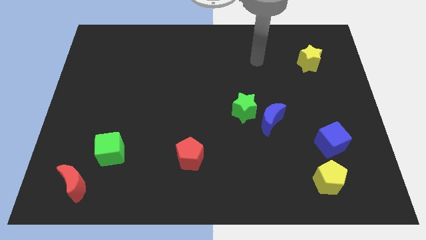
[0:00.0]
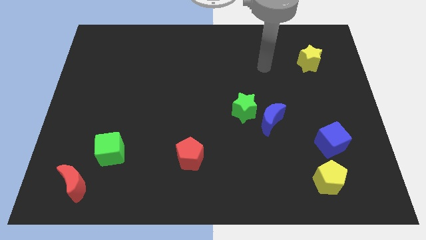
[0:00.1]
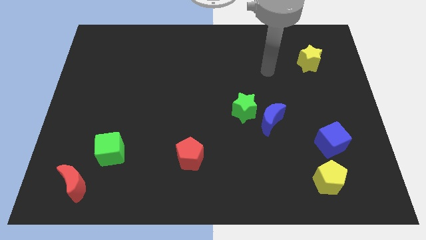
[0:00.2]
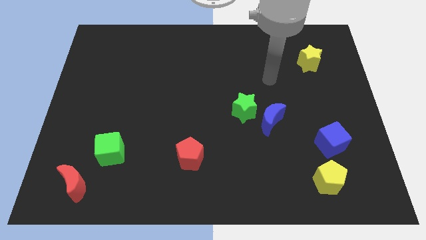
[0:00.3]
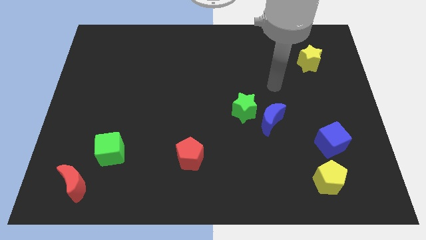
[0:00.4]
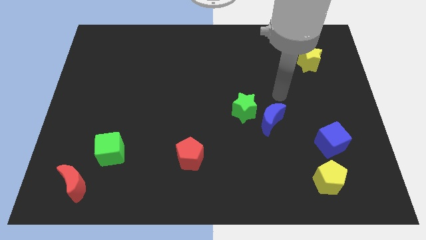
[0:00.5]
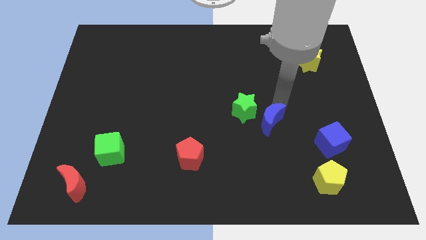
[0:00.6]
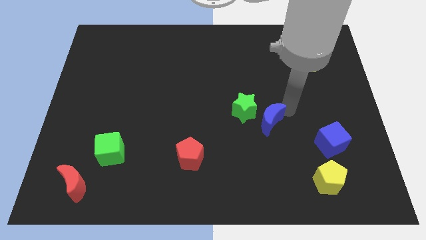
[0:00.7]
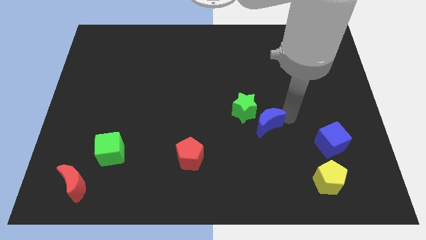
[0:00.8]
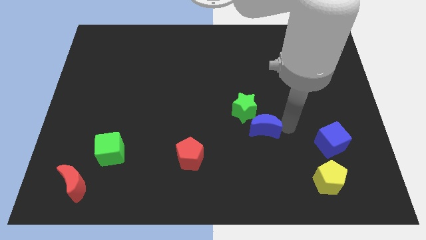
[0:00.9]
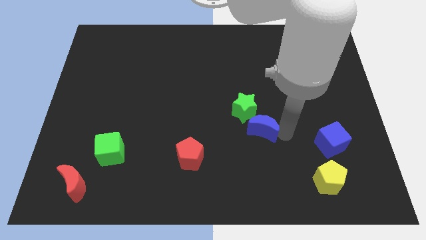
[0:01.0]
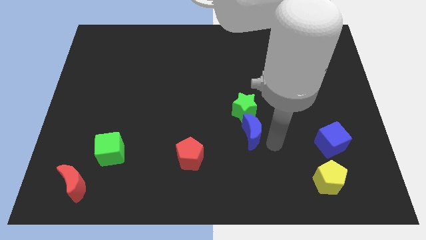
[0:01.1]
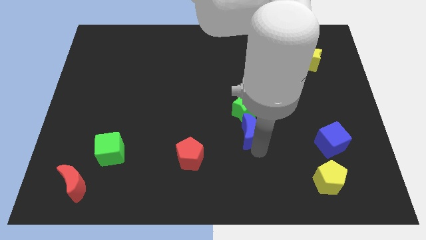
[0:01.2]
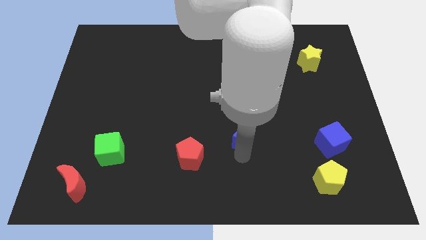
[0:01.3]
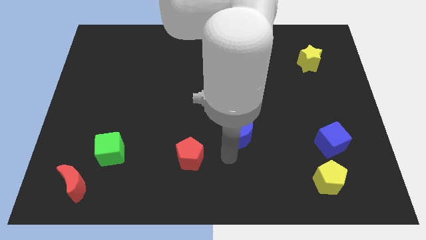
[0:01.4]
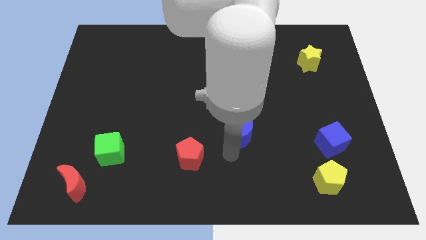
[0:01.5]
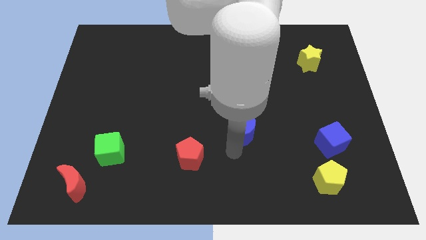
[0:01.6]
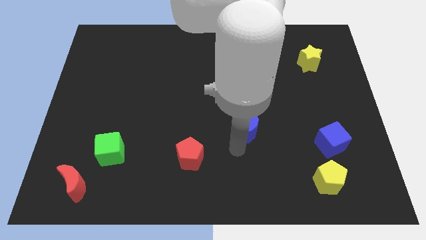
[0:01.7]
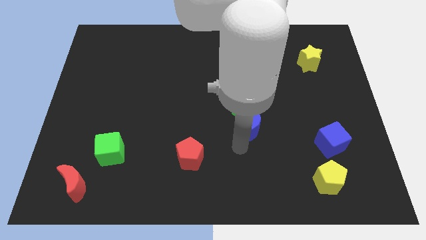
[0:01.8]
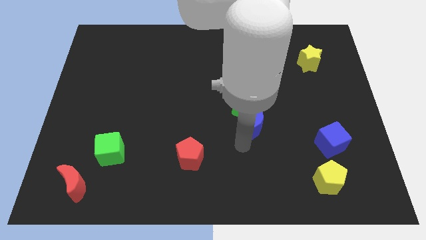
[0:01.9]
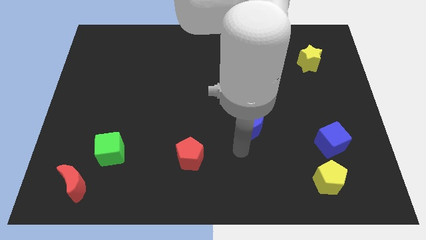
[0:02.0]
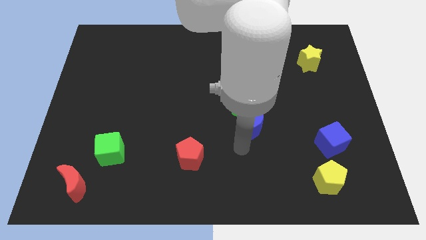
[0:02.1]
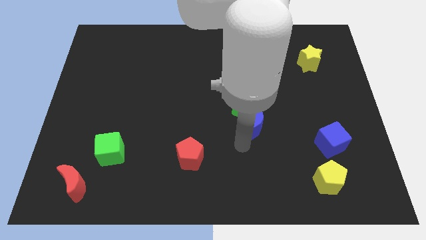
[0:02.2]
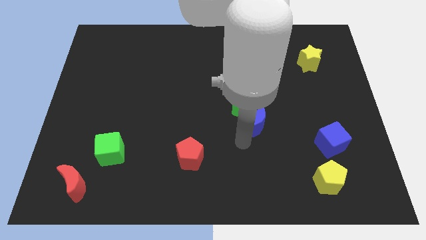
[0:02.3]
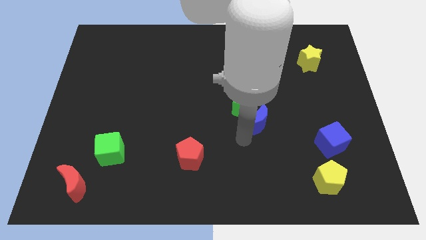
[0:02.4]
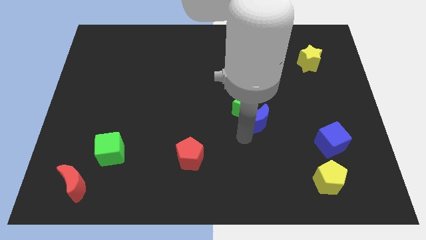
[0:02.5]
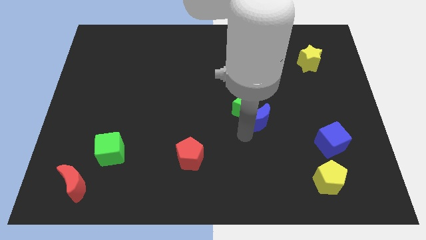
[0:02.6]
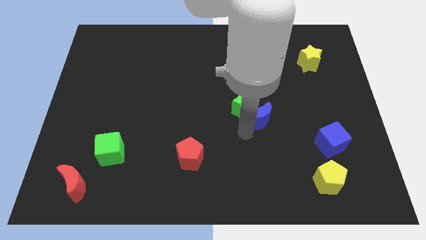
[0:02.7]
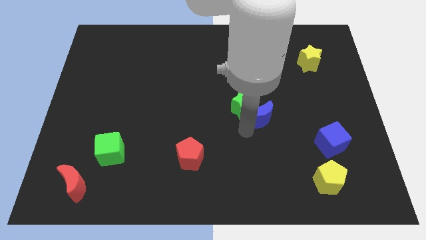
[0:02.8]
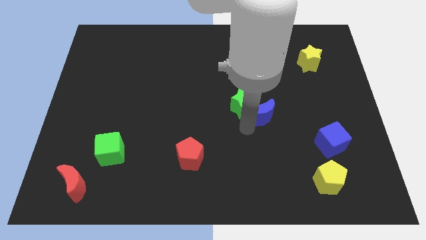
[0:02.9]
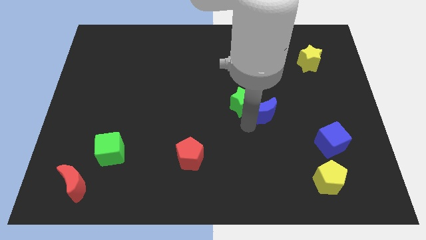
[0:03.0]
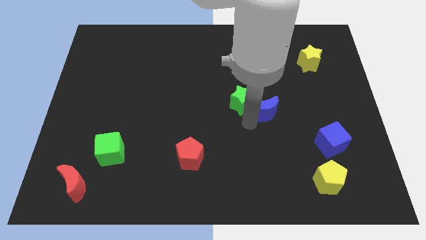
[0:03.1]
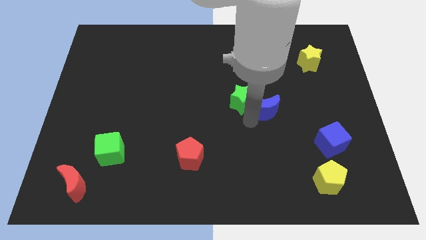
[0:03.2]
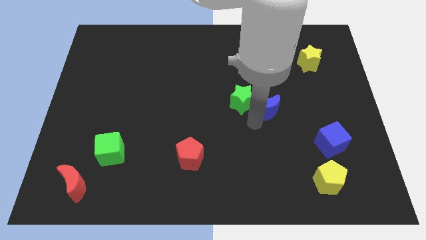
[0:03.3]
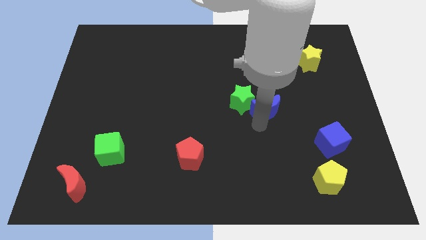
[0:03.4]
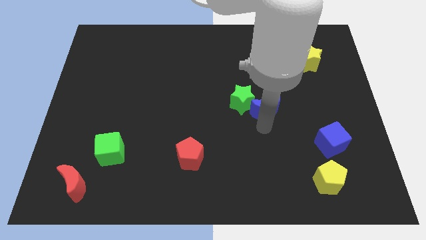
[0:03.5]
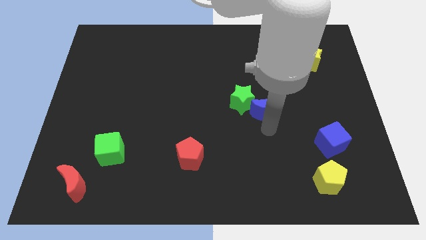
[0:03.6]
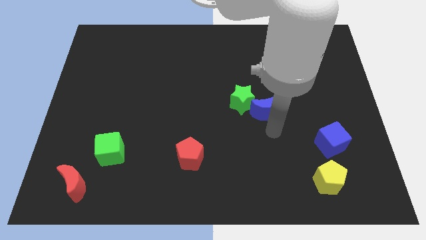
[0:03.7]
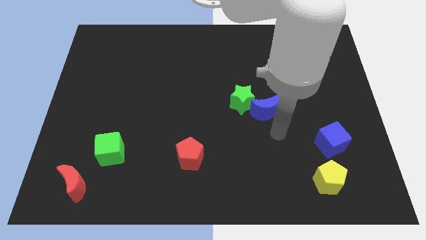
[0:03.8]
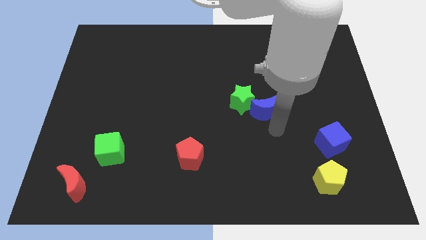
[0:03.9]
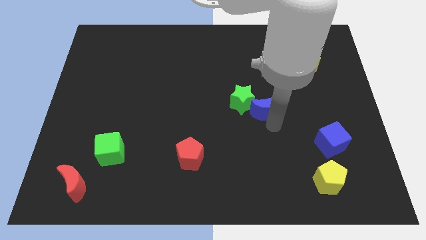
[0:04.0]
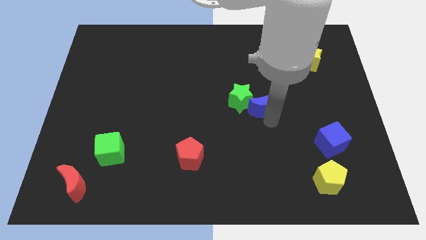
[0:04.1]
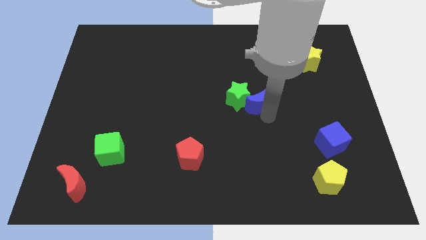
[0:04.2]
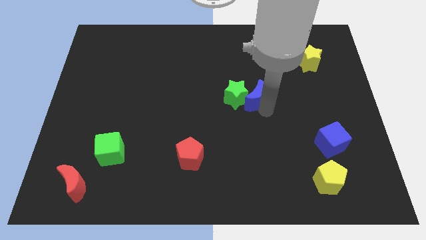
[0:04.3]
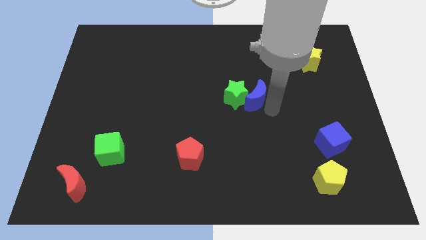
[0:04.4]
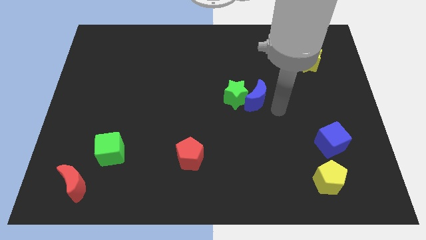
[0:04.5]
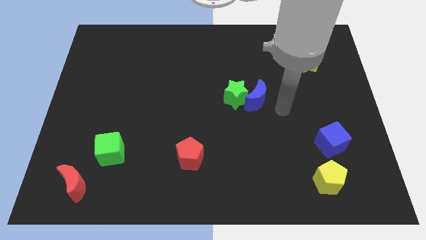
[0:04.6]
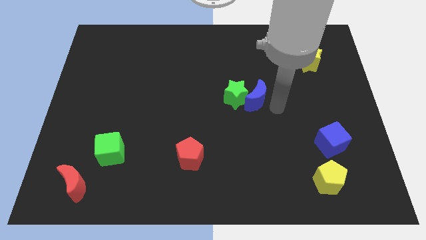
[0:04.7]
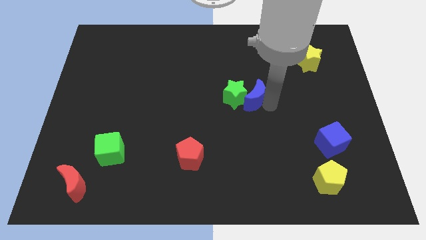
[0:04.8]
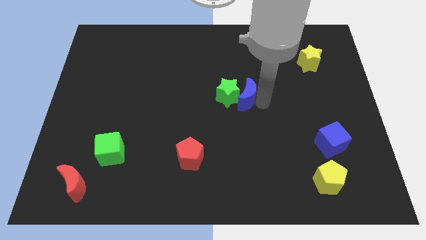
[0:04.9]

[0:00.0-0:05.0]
move the blue moon diagonally upwards and left slightly

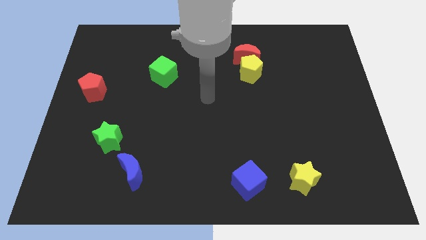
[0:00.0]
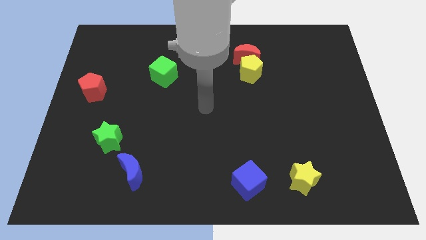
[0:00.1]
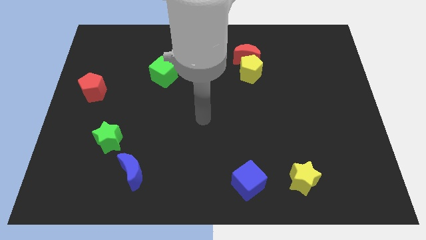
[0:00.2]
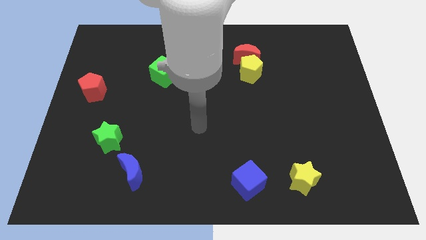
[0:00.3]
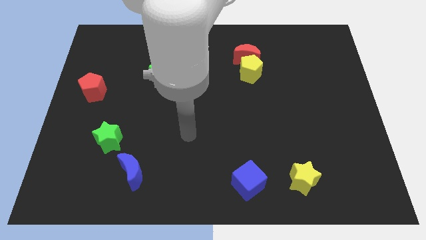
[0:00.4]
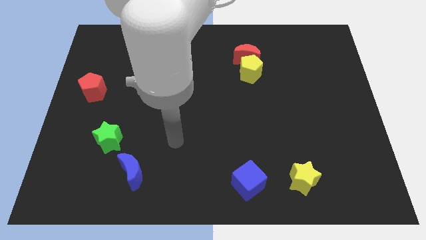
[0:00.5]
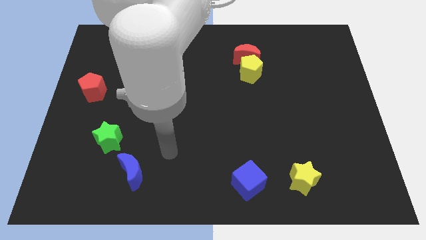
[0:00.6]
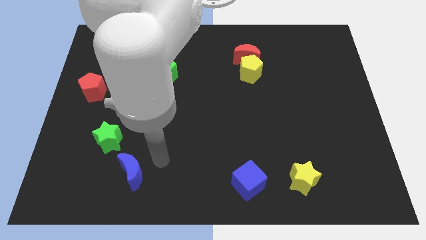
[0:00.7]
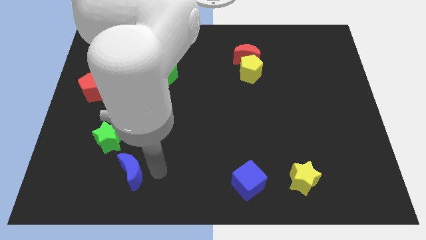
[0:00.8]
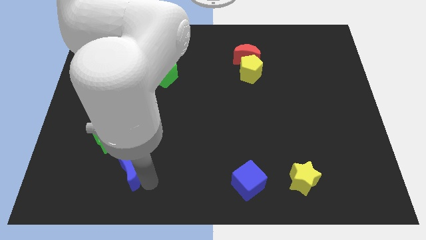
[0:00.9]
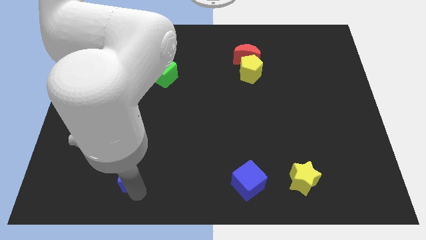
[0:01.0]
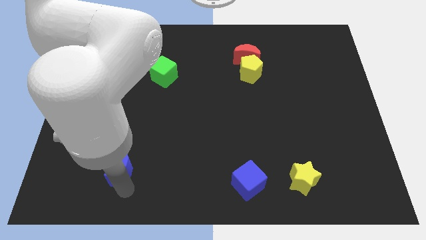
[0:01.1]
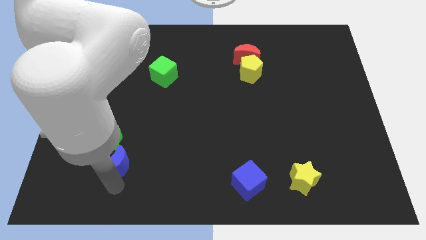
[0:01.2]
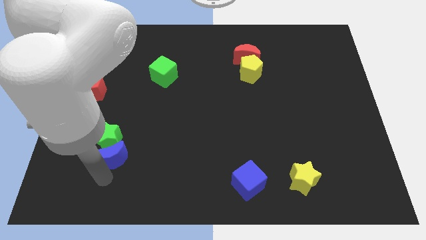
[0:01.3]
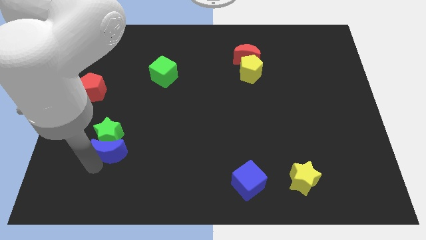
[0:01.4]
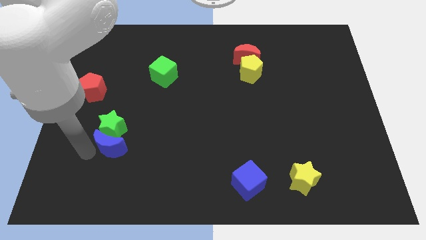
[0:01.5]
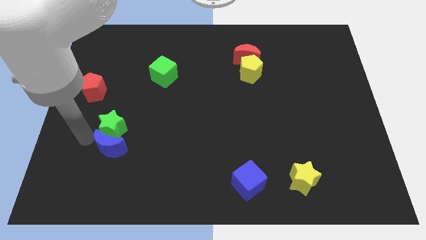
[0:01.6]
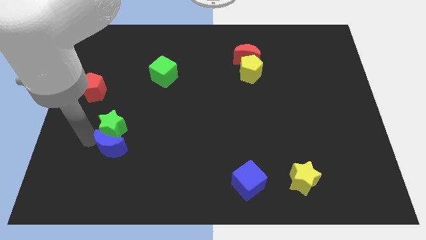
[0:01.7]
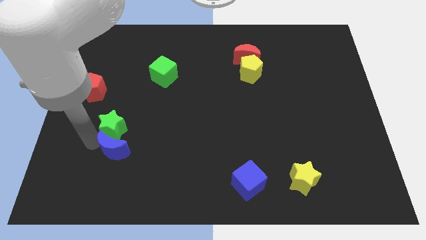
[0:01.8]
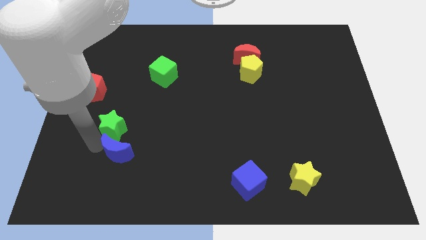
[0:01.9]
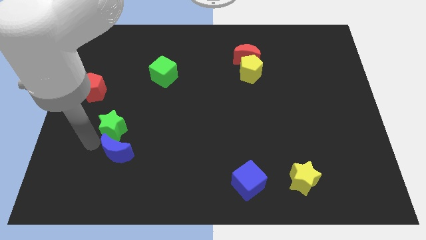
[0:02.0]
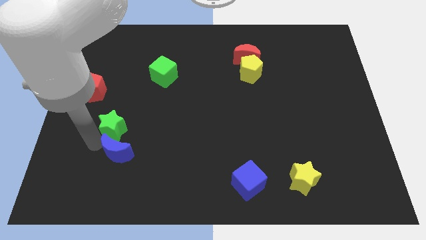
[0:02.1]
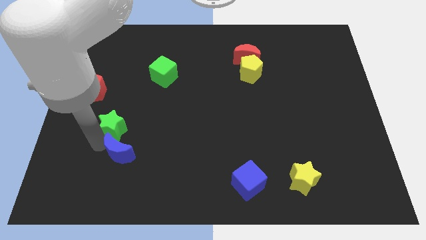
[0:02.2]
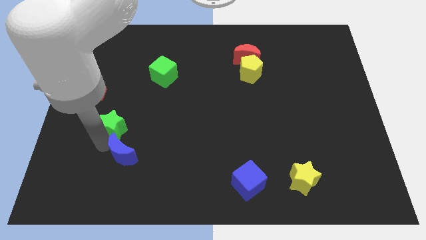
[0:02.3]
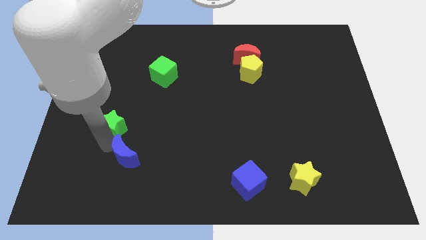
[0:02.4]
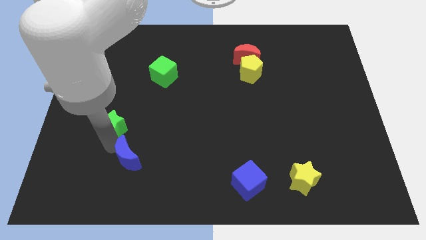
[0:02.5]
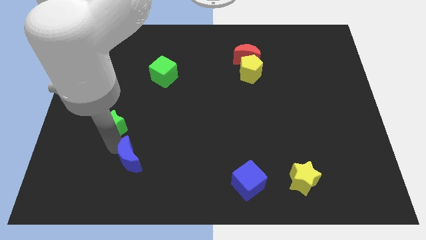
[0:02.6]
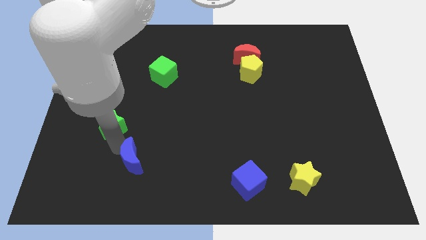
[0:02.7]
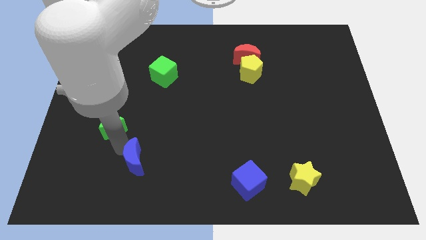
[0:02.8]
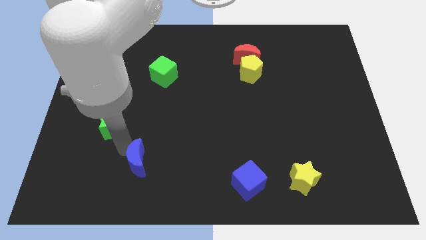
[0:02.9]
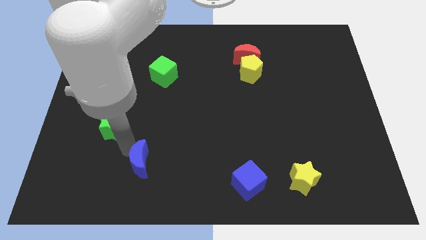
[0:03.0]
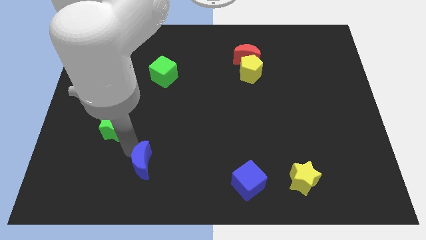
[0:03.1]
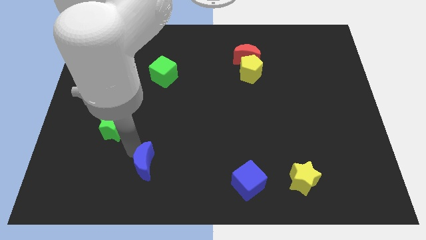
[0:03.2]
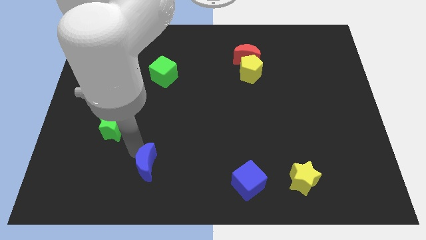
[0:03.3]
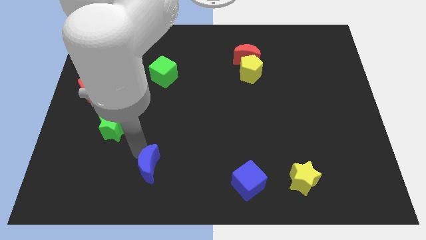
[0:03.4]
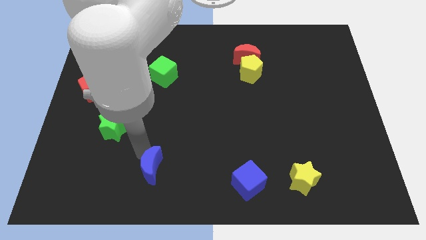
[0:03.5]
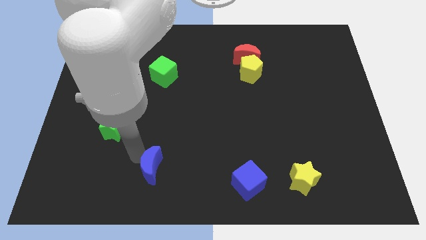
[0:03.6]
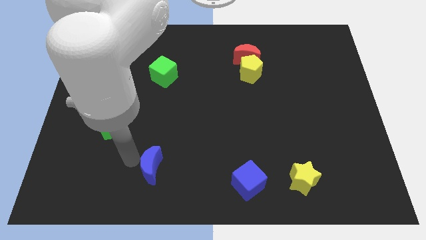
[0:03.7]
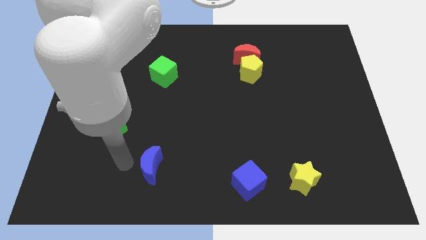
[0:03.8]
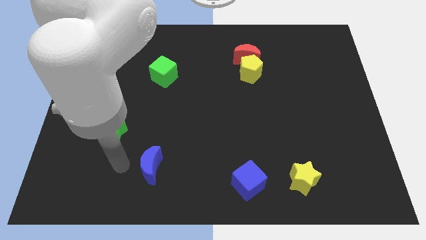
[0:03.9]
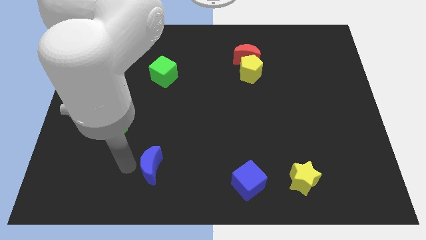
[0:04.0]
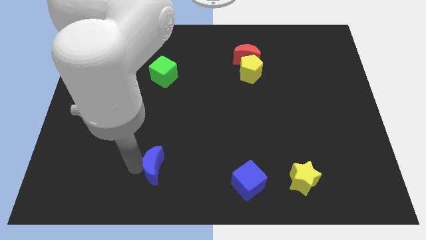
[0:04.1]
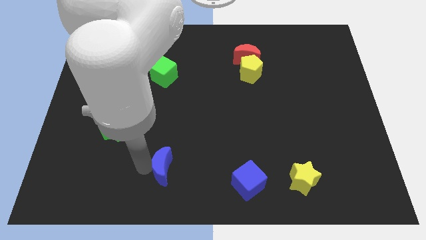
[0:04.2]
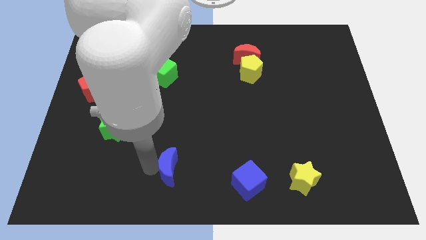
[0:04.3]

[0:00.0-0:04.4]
slightly push the blue moon to the right
